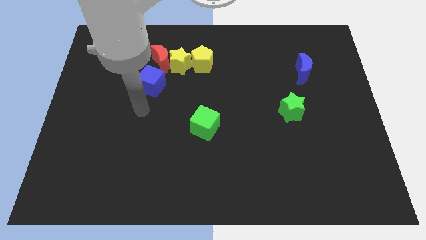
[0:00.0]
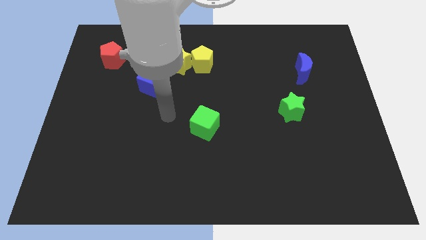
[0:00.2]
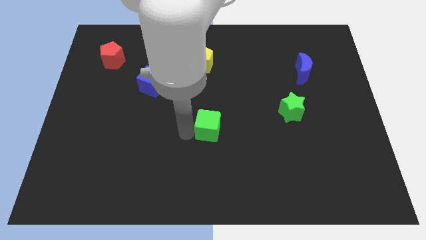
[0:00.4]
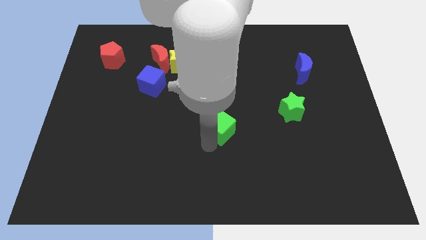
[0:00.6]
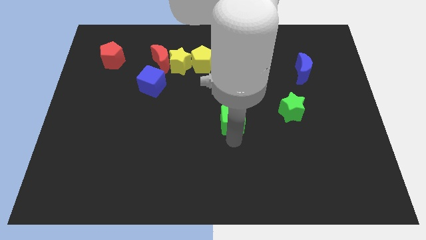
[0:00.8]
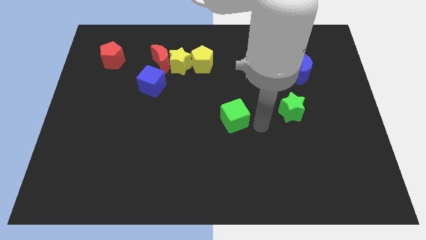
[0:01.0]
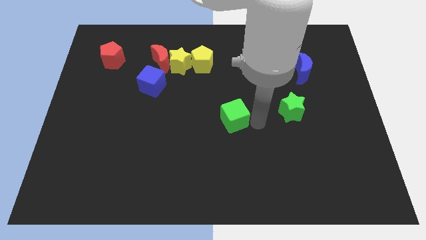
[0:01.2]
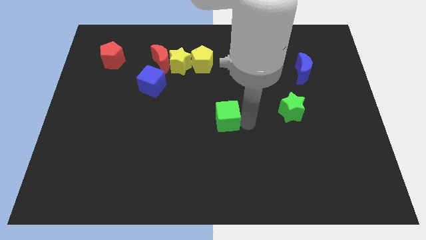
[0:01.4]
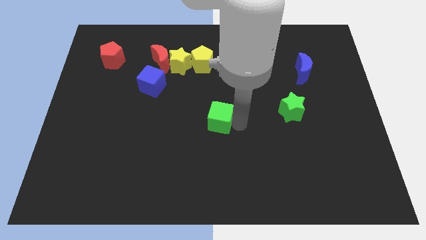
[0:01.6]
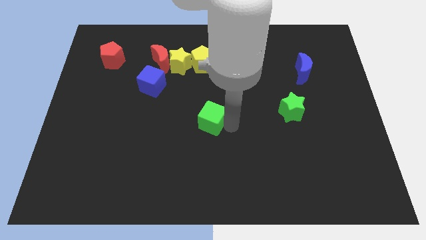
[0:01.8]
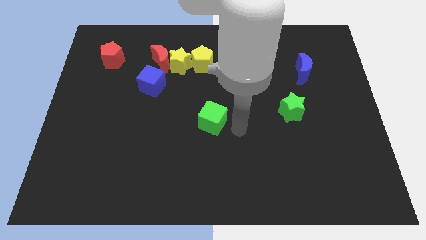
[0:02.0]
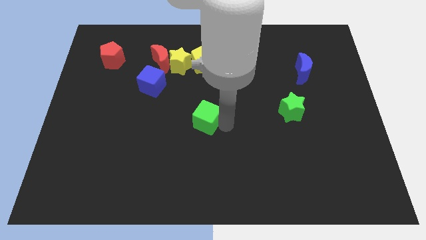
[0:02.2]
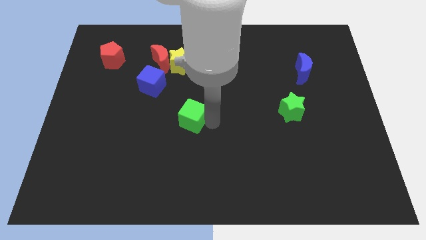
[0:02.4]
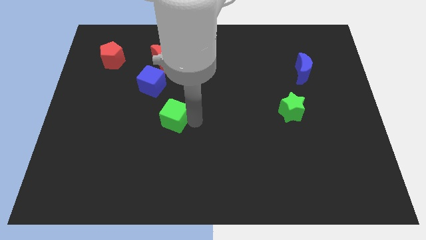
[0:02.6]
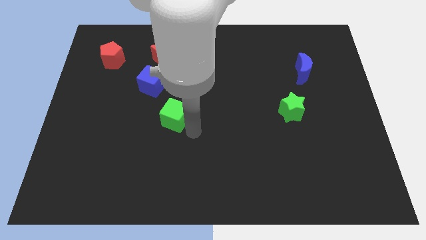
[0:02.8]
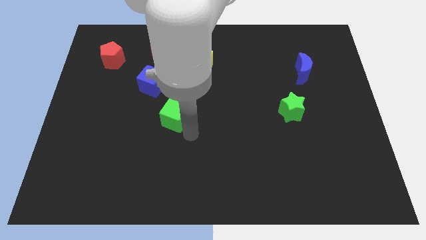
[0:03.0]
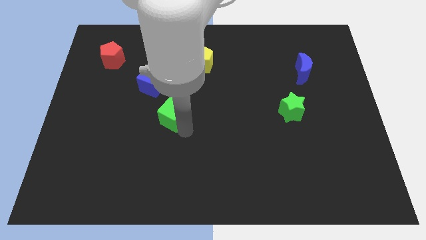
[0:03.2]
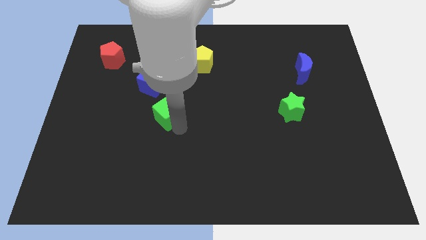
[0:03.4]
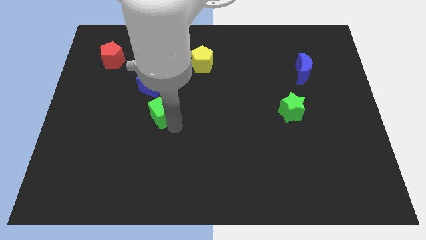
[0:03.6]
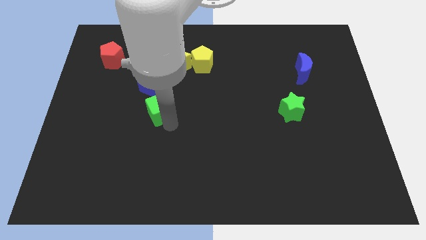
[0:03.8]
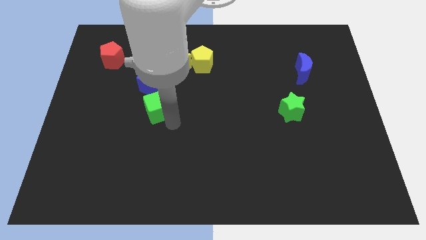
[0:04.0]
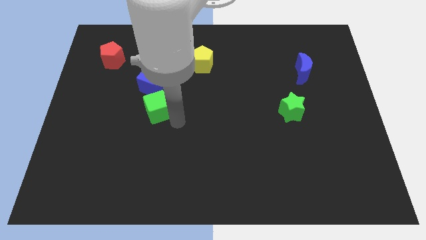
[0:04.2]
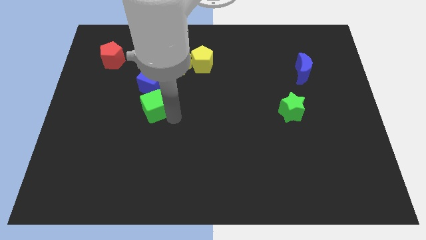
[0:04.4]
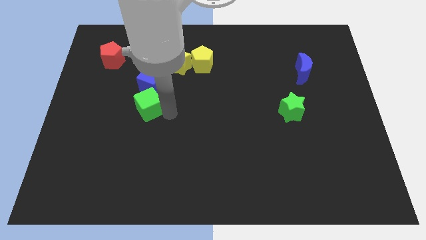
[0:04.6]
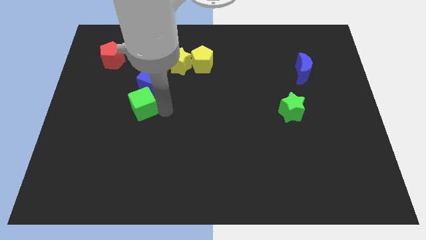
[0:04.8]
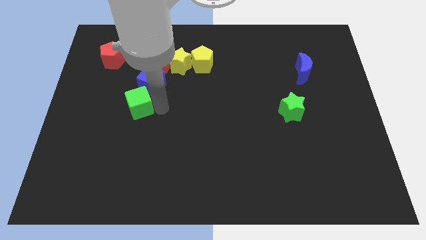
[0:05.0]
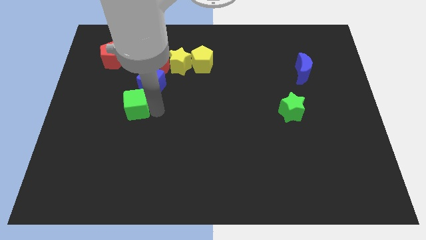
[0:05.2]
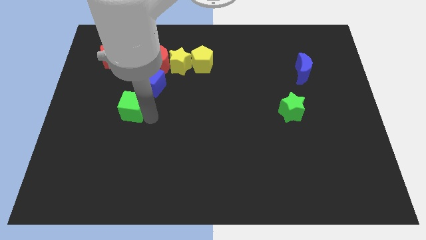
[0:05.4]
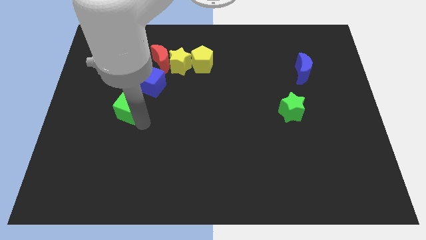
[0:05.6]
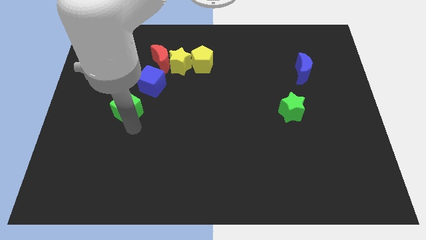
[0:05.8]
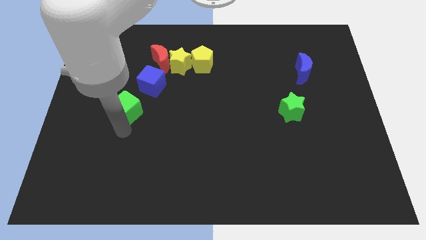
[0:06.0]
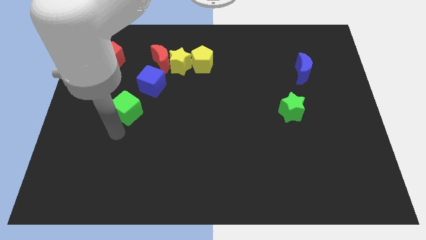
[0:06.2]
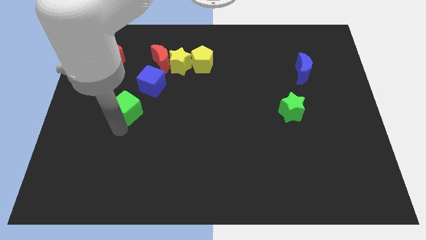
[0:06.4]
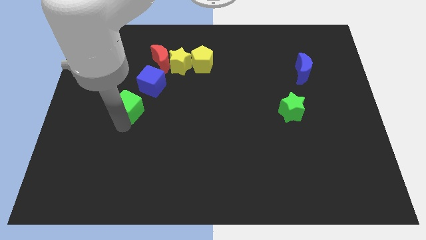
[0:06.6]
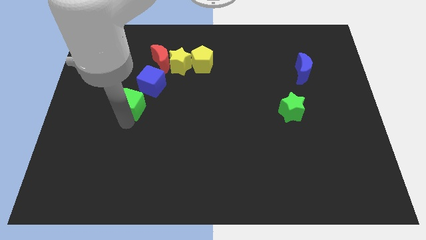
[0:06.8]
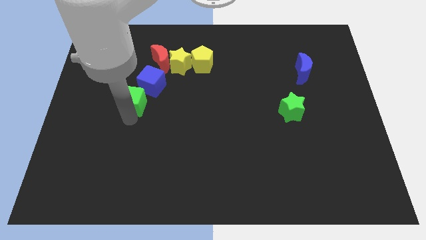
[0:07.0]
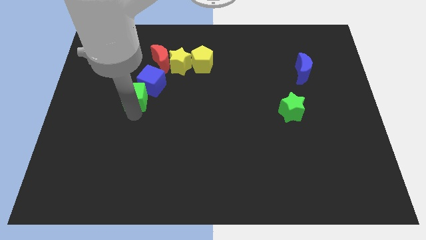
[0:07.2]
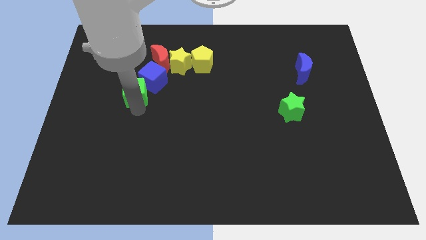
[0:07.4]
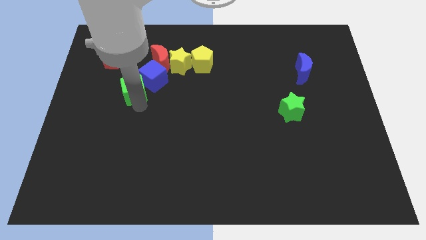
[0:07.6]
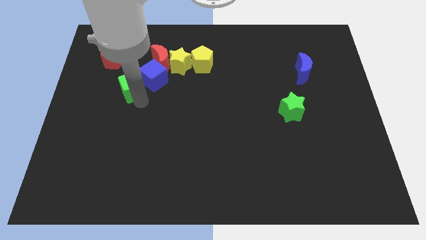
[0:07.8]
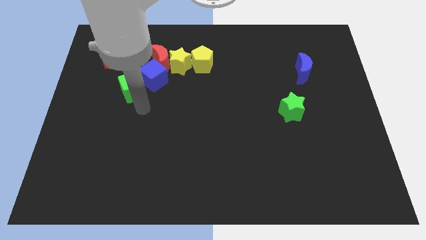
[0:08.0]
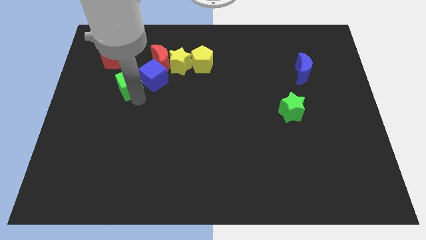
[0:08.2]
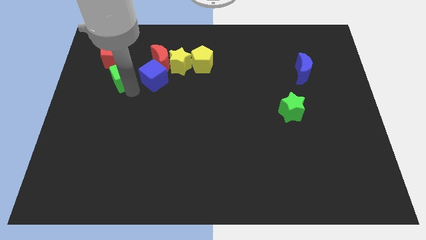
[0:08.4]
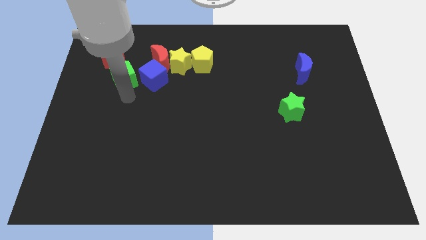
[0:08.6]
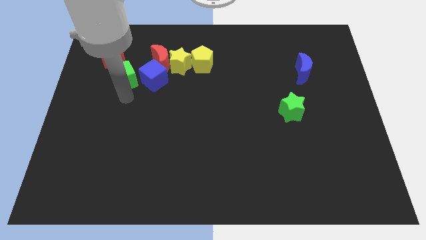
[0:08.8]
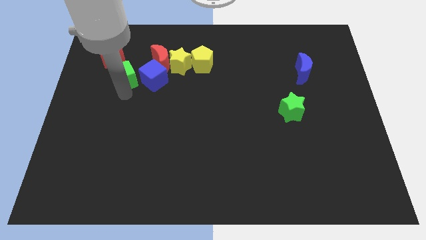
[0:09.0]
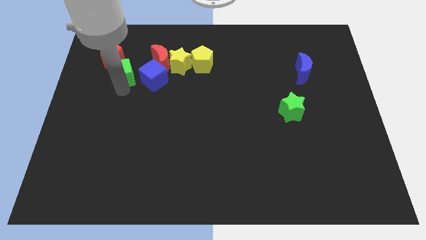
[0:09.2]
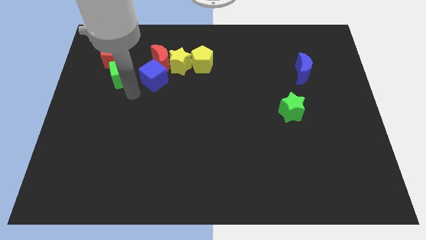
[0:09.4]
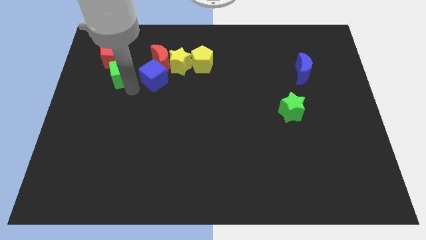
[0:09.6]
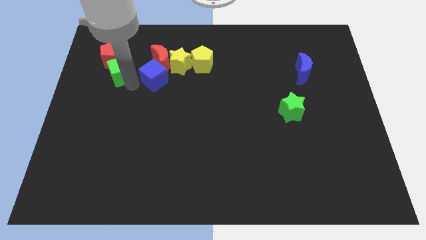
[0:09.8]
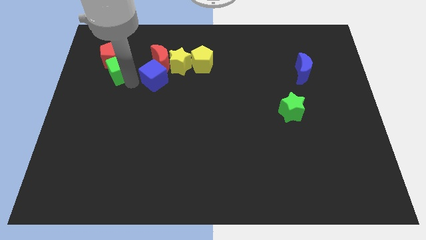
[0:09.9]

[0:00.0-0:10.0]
move the green cube to the red pentagon

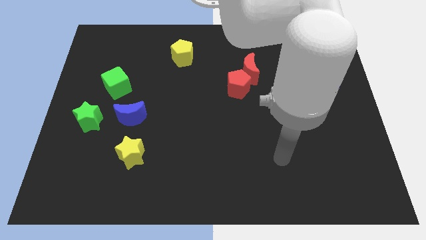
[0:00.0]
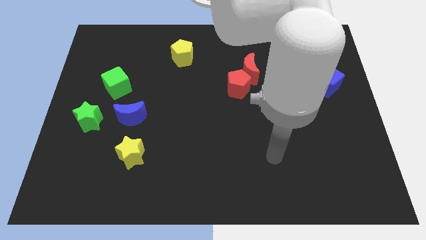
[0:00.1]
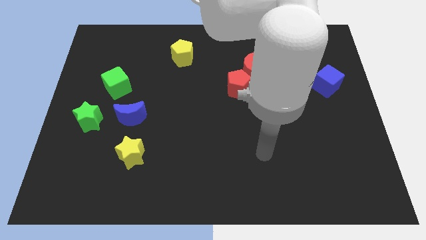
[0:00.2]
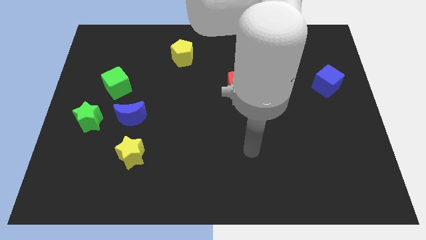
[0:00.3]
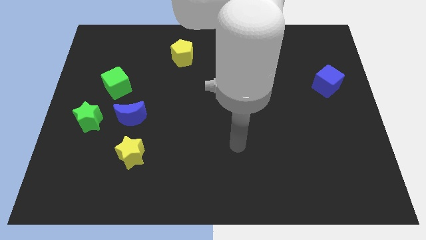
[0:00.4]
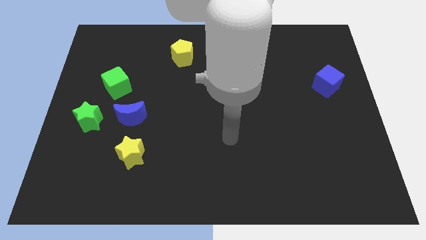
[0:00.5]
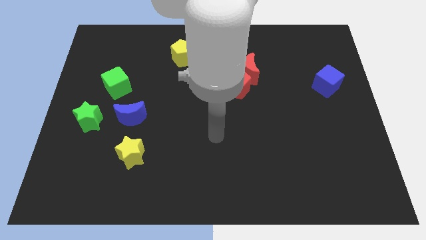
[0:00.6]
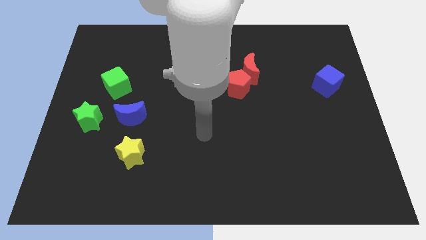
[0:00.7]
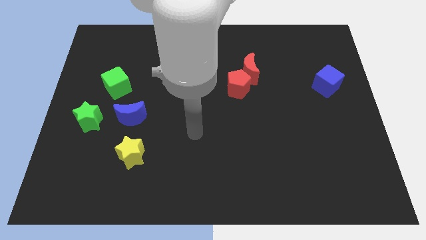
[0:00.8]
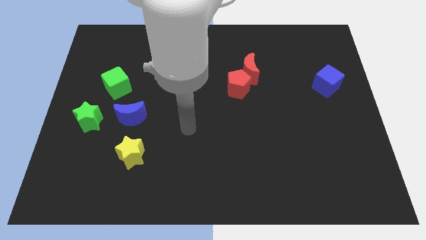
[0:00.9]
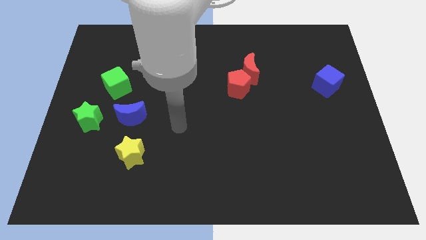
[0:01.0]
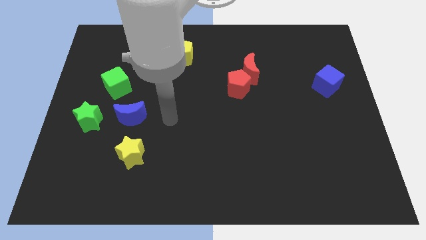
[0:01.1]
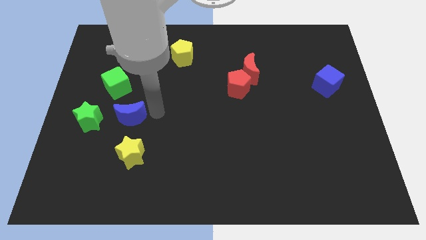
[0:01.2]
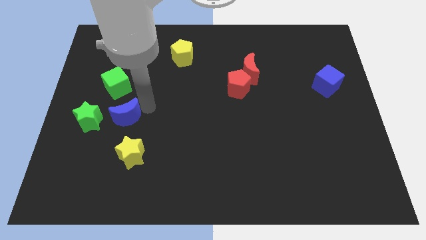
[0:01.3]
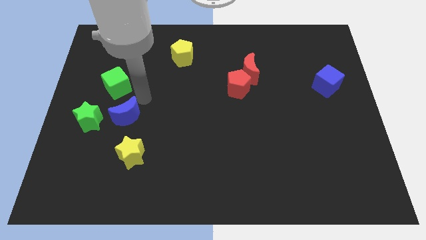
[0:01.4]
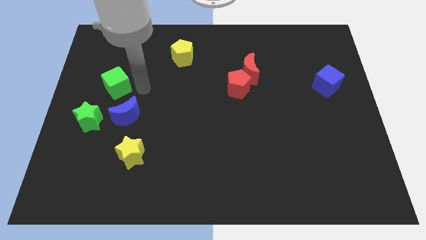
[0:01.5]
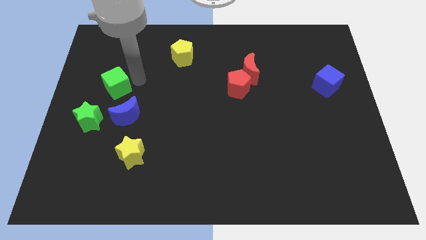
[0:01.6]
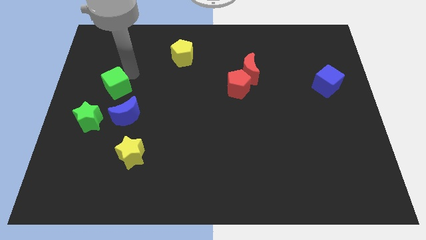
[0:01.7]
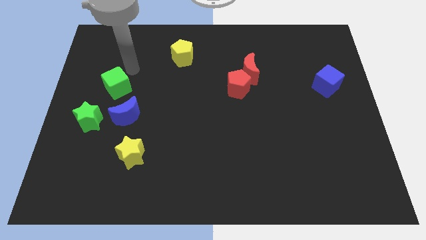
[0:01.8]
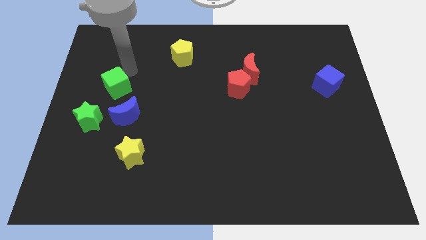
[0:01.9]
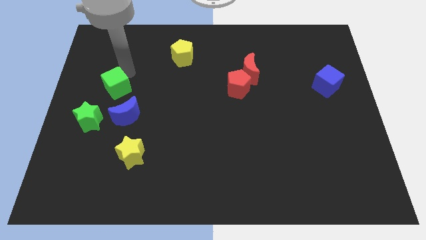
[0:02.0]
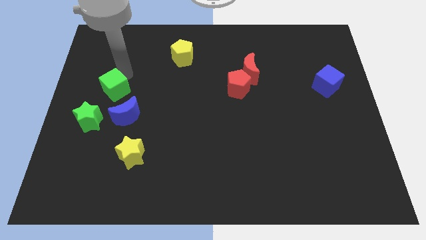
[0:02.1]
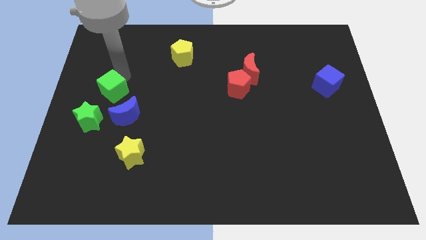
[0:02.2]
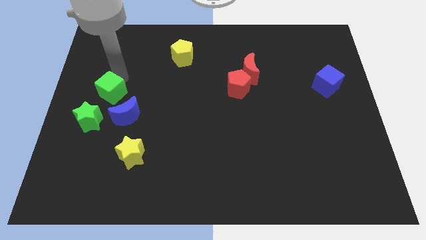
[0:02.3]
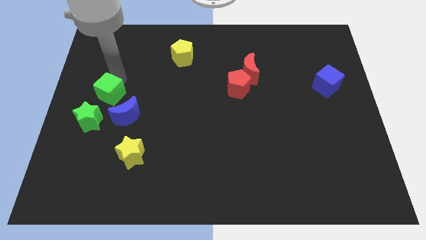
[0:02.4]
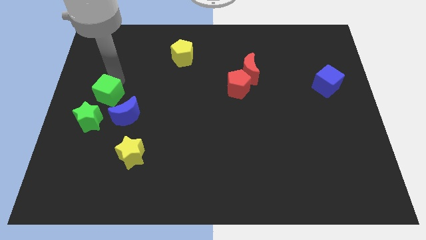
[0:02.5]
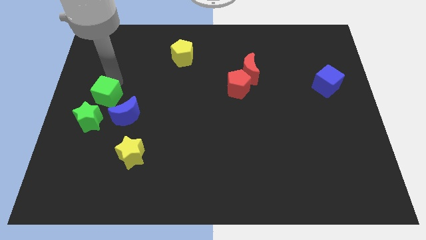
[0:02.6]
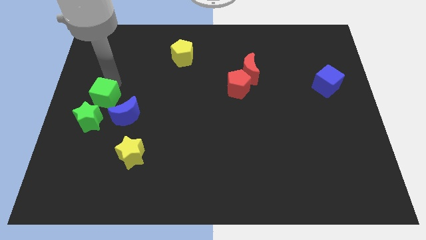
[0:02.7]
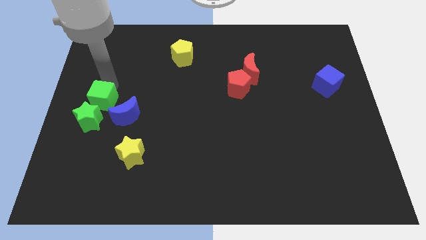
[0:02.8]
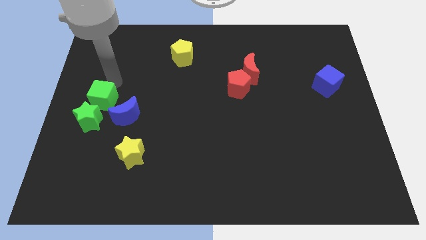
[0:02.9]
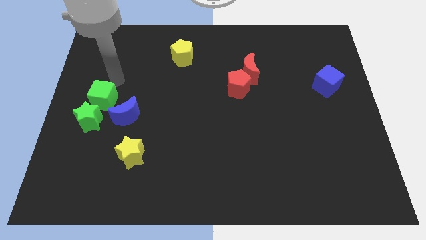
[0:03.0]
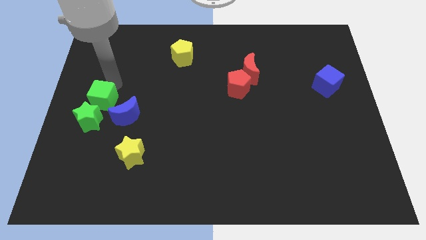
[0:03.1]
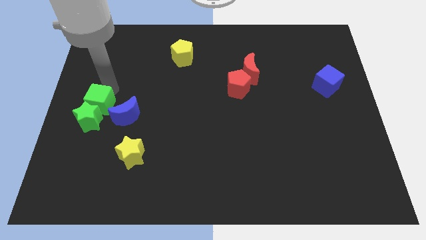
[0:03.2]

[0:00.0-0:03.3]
push the green cube next to the green star
